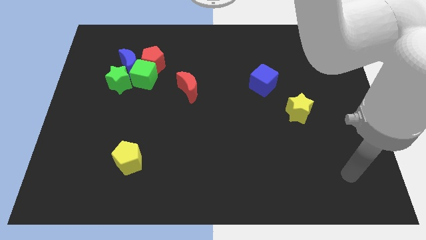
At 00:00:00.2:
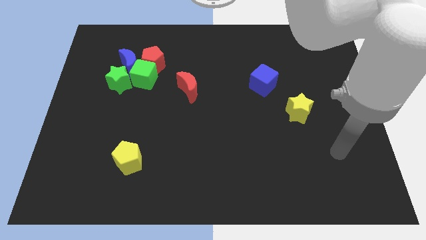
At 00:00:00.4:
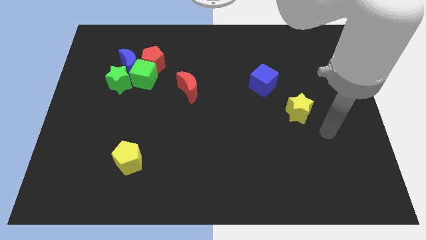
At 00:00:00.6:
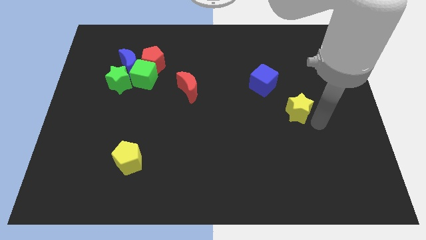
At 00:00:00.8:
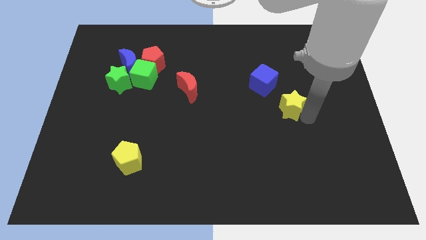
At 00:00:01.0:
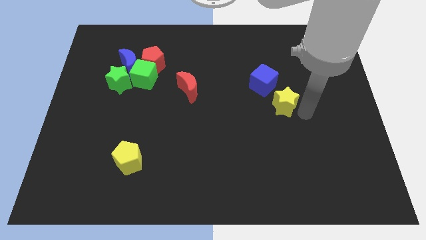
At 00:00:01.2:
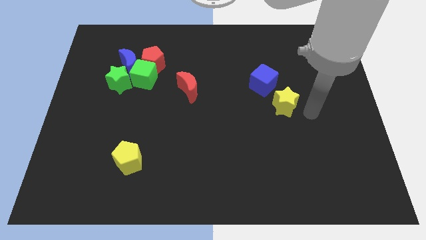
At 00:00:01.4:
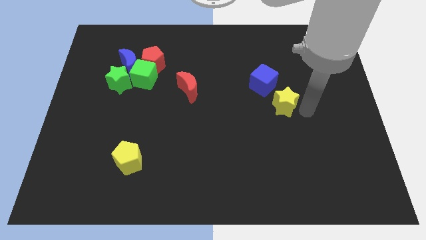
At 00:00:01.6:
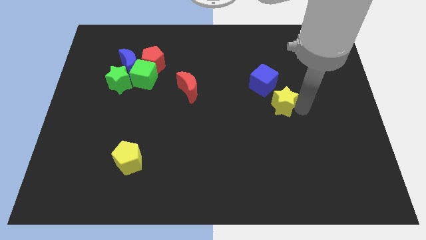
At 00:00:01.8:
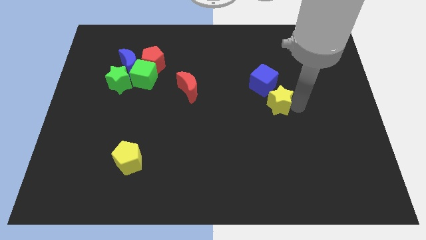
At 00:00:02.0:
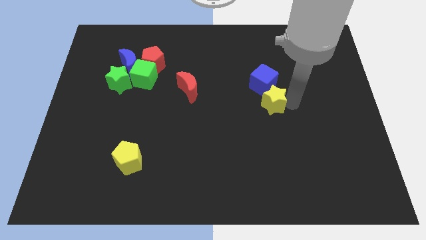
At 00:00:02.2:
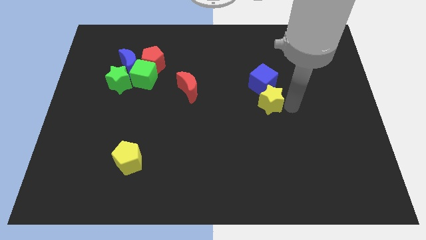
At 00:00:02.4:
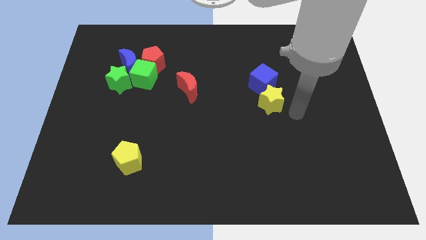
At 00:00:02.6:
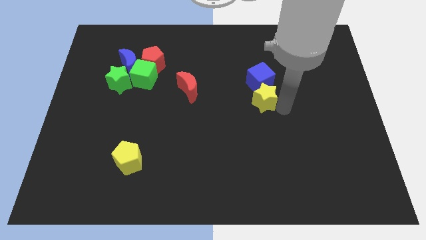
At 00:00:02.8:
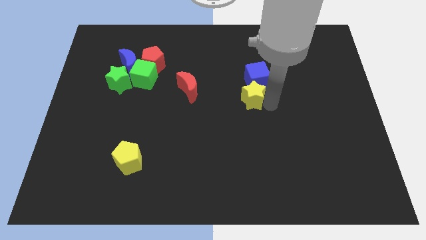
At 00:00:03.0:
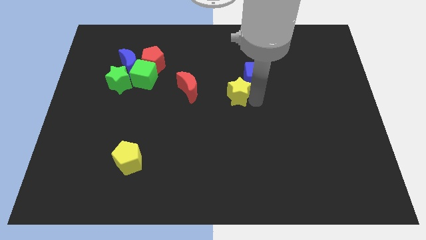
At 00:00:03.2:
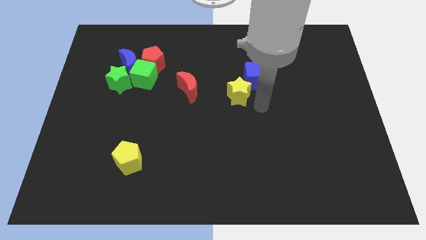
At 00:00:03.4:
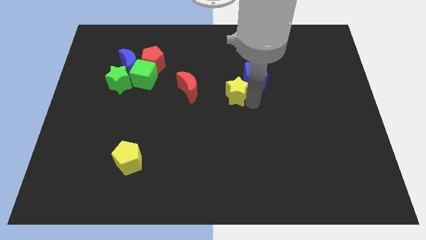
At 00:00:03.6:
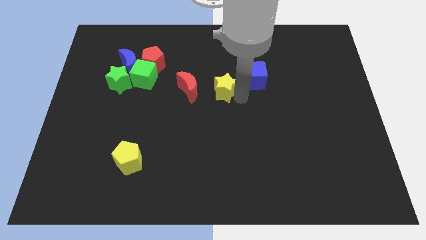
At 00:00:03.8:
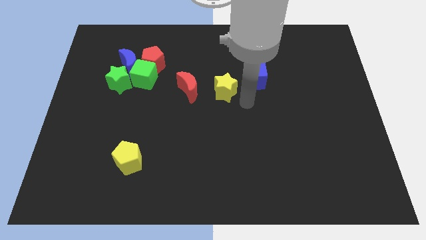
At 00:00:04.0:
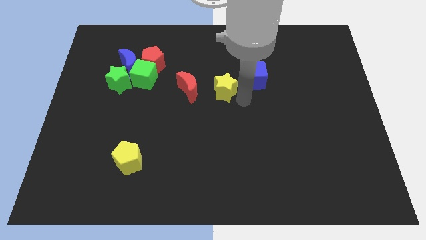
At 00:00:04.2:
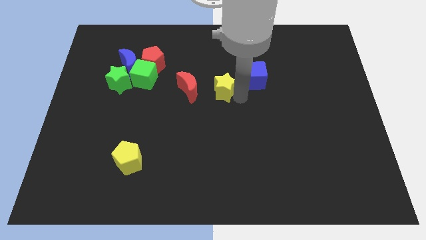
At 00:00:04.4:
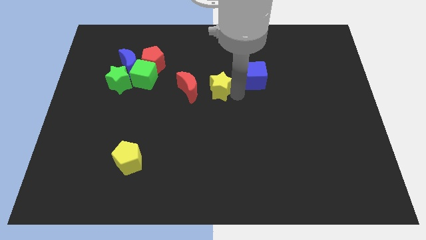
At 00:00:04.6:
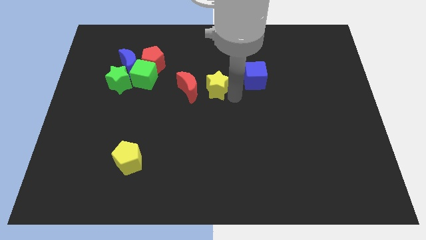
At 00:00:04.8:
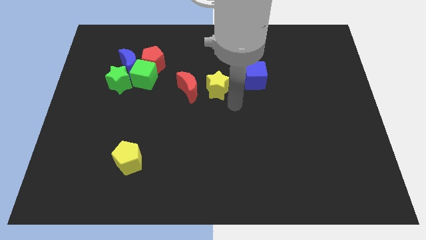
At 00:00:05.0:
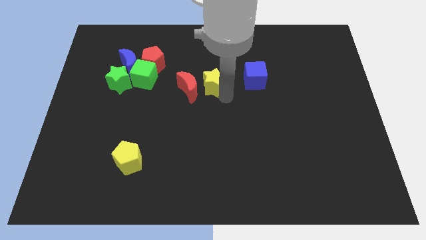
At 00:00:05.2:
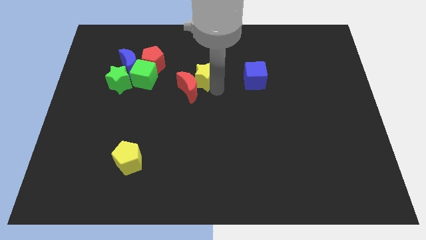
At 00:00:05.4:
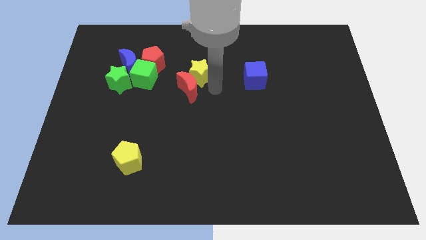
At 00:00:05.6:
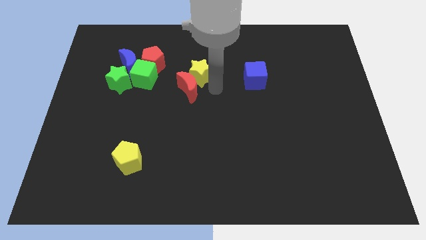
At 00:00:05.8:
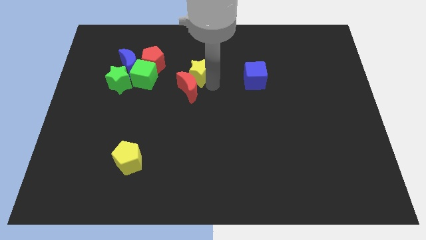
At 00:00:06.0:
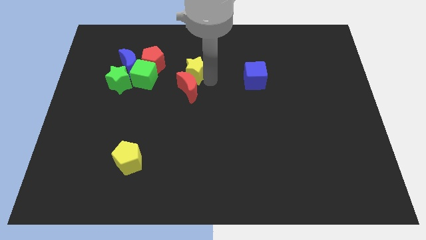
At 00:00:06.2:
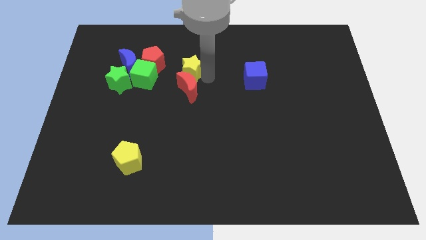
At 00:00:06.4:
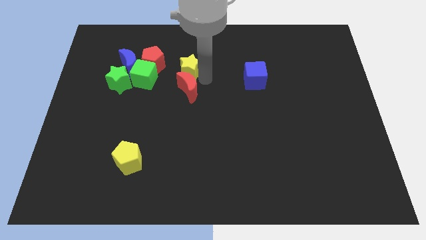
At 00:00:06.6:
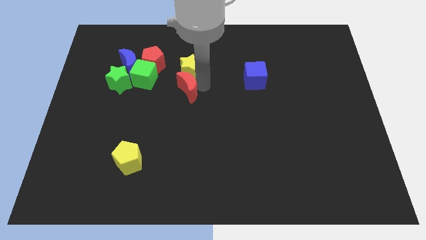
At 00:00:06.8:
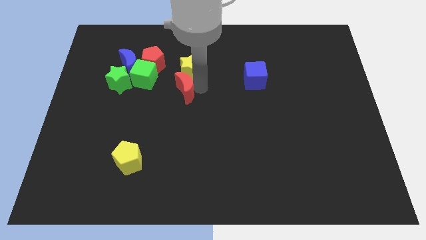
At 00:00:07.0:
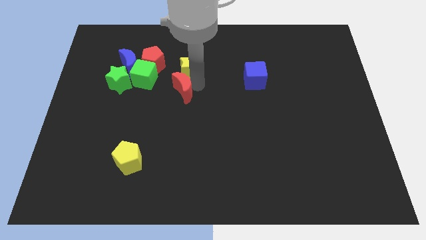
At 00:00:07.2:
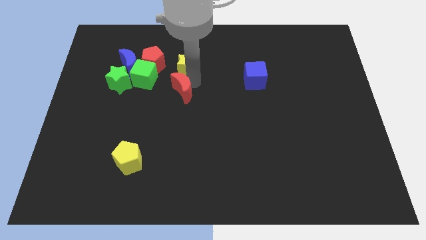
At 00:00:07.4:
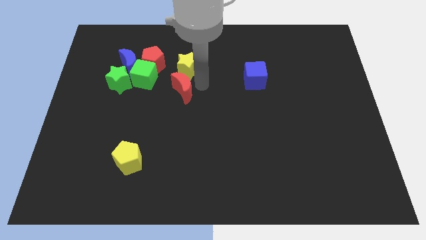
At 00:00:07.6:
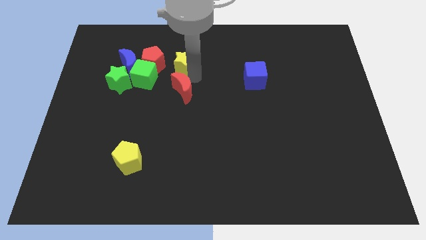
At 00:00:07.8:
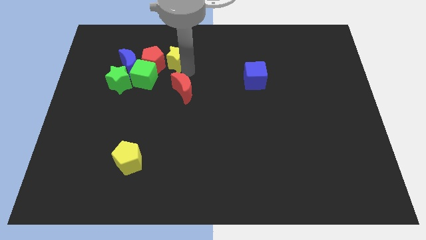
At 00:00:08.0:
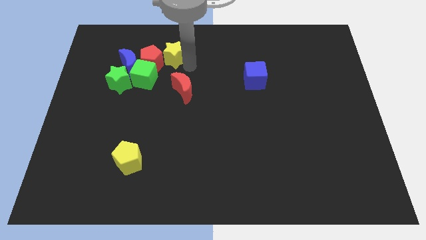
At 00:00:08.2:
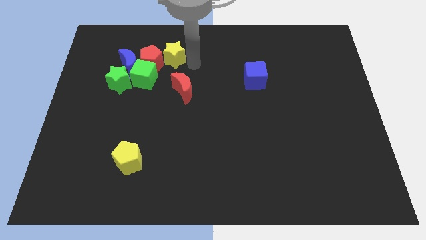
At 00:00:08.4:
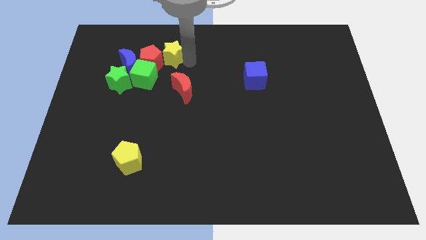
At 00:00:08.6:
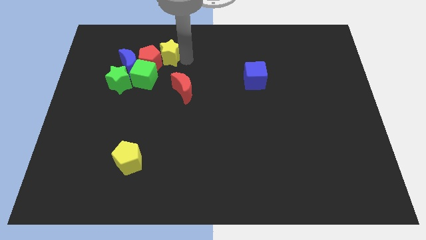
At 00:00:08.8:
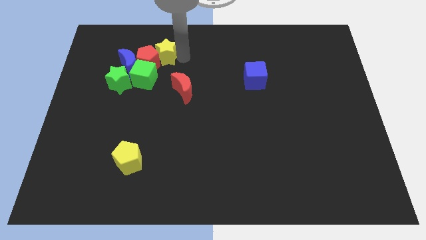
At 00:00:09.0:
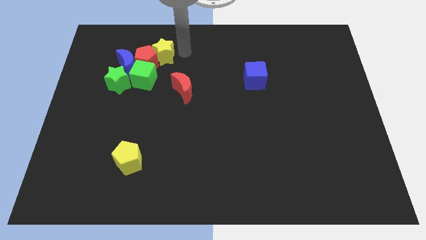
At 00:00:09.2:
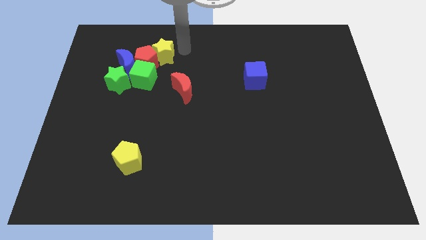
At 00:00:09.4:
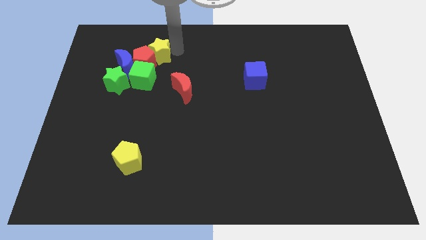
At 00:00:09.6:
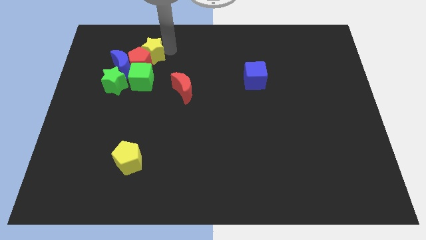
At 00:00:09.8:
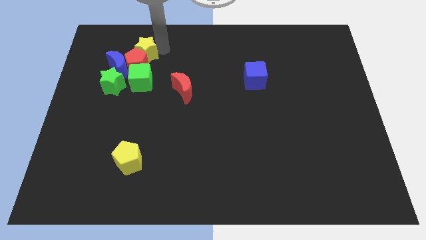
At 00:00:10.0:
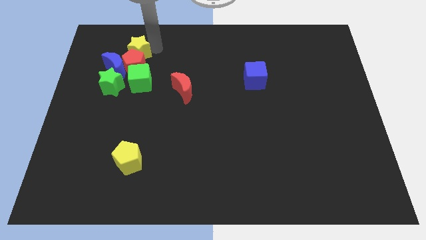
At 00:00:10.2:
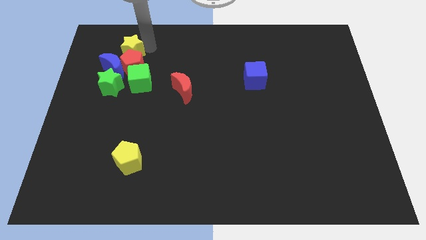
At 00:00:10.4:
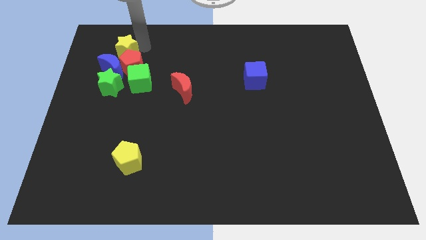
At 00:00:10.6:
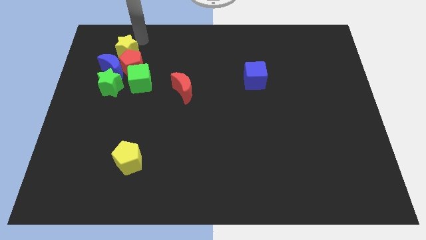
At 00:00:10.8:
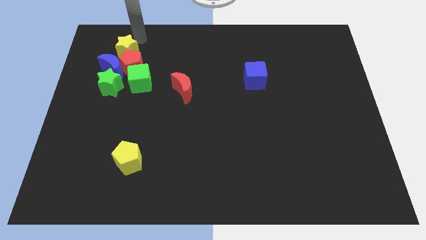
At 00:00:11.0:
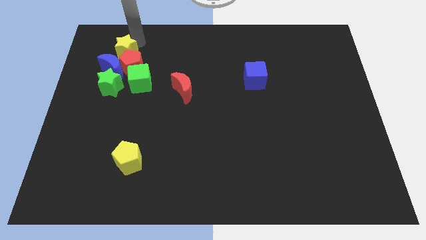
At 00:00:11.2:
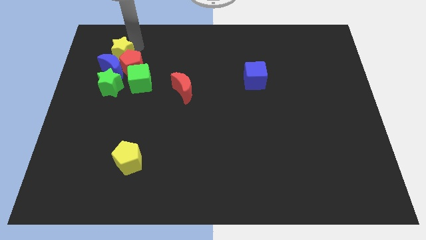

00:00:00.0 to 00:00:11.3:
push the yellow star next to the blue moon
